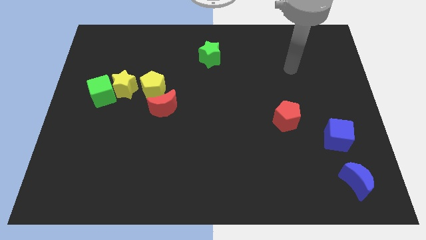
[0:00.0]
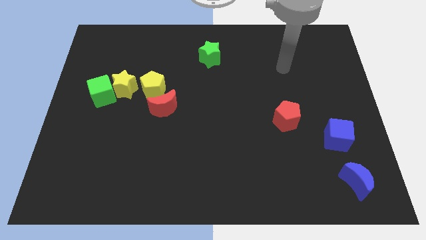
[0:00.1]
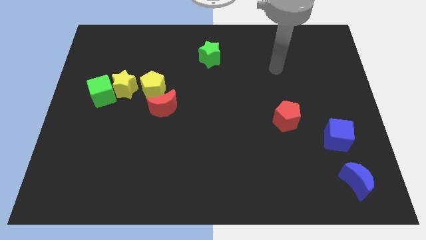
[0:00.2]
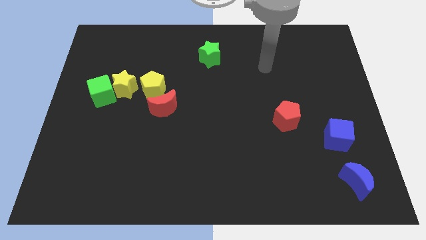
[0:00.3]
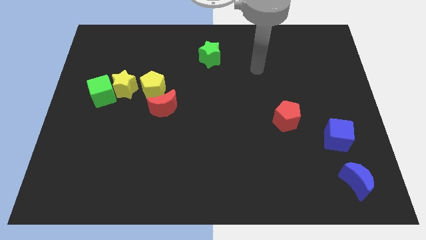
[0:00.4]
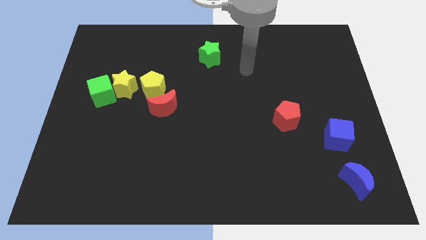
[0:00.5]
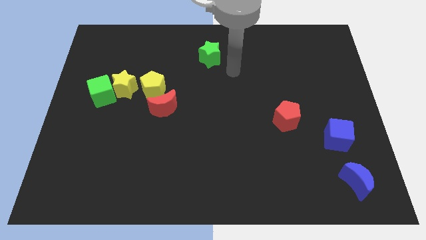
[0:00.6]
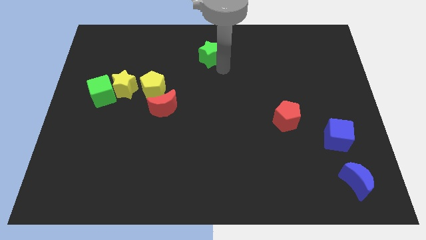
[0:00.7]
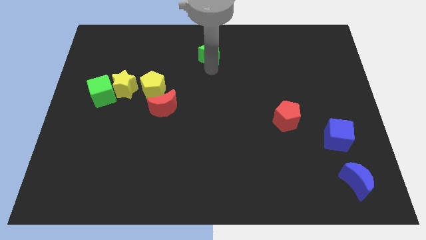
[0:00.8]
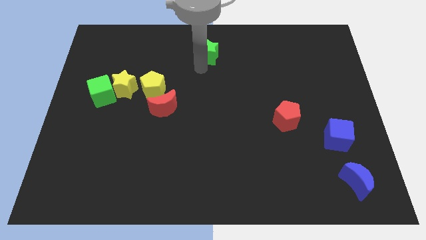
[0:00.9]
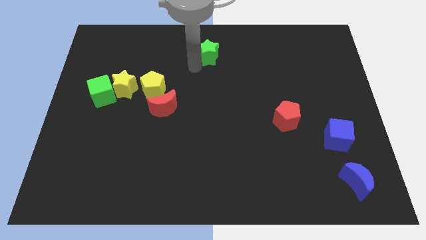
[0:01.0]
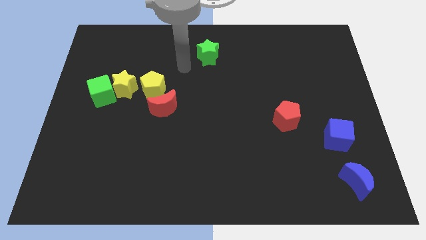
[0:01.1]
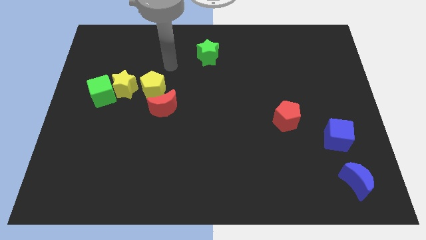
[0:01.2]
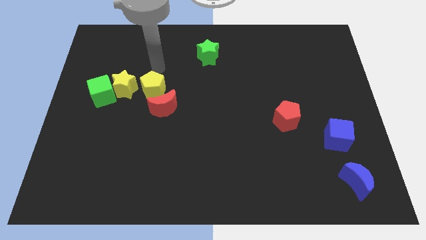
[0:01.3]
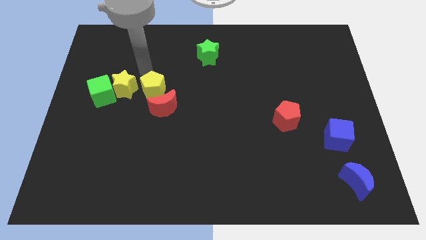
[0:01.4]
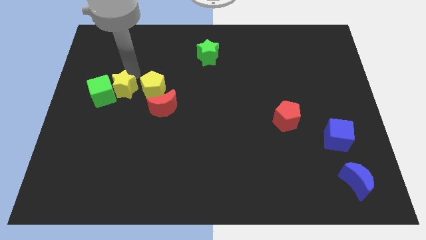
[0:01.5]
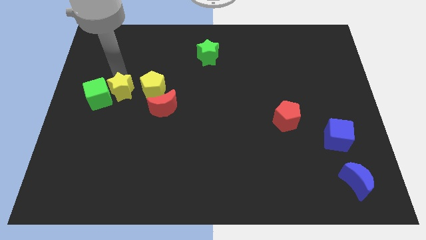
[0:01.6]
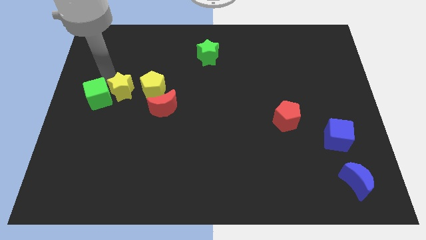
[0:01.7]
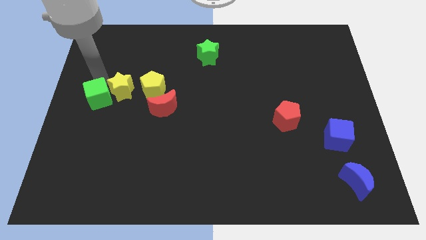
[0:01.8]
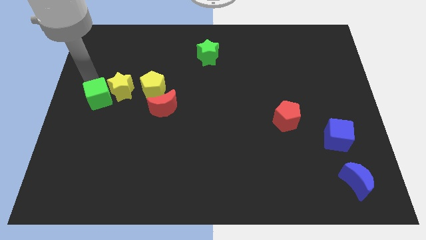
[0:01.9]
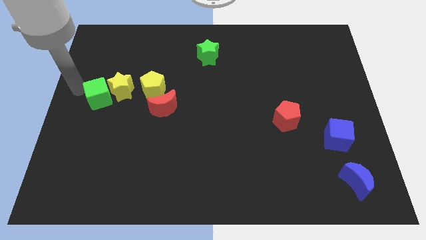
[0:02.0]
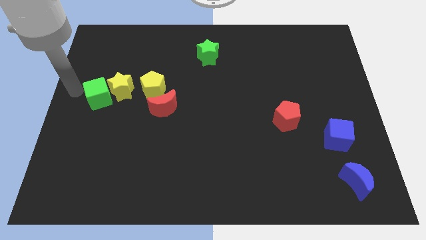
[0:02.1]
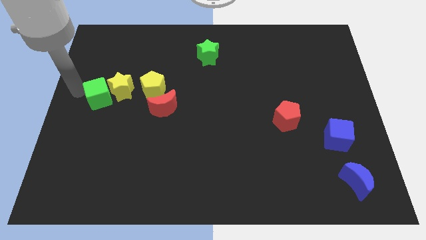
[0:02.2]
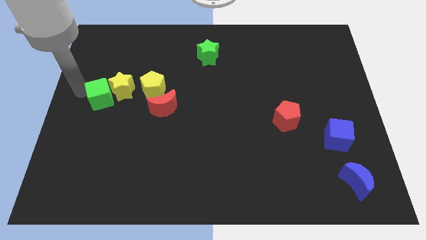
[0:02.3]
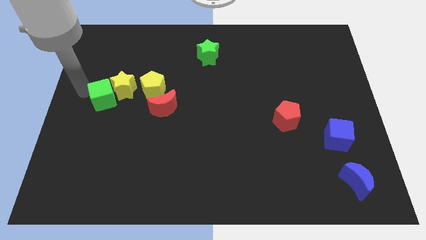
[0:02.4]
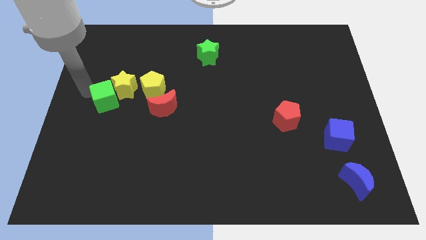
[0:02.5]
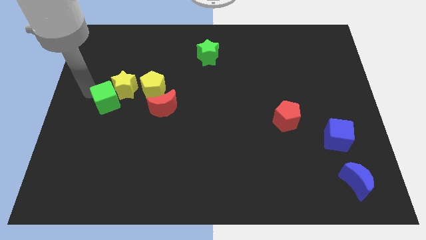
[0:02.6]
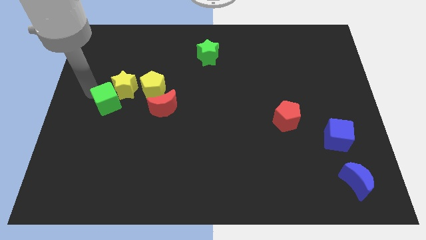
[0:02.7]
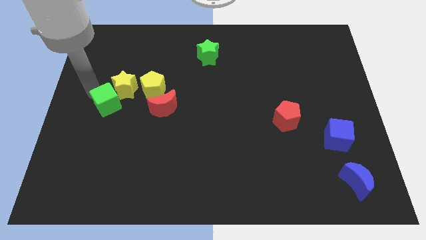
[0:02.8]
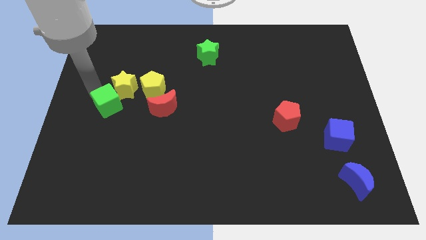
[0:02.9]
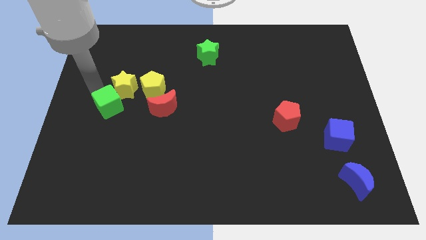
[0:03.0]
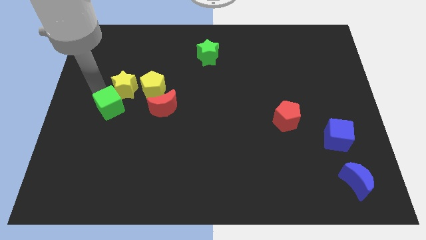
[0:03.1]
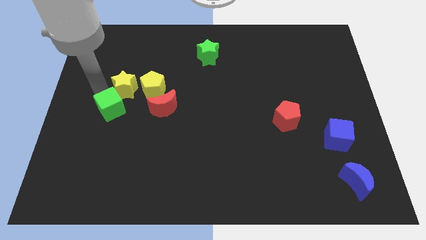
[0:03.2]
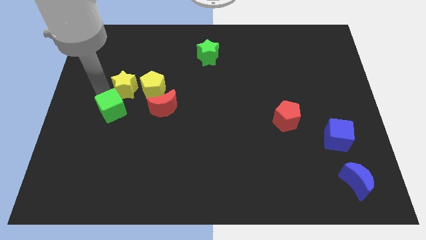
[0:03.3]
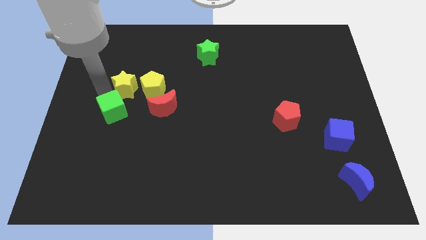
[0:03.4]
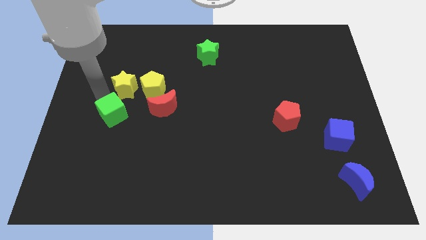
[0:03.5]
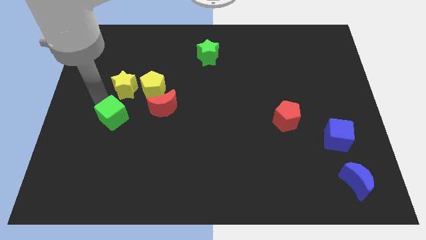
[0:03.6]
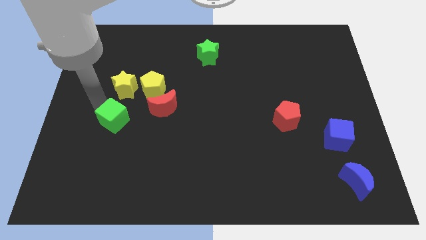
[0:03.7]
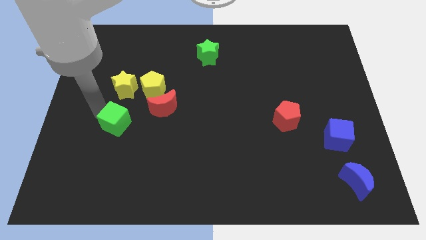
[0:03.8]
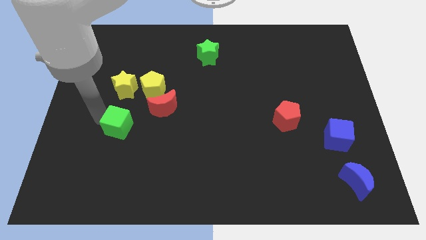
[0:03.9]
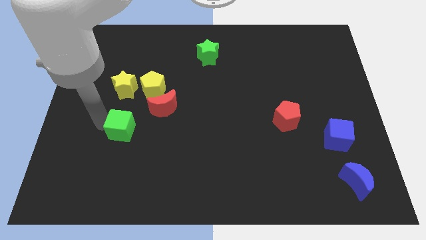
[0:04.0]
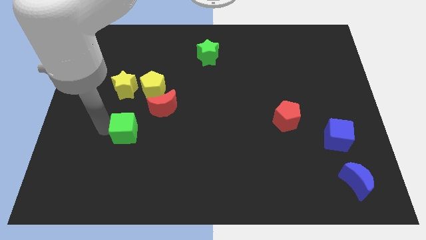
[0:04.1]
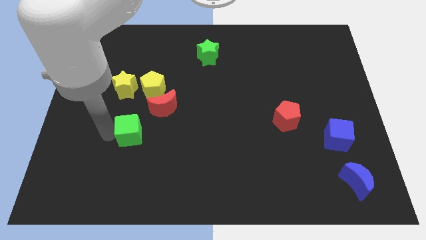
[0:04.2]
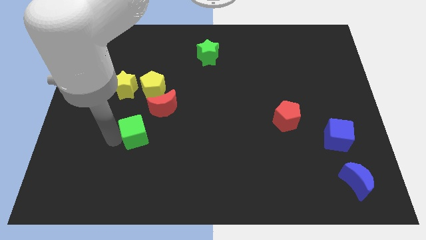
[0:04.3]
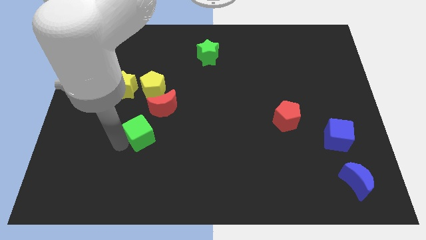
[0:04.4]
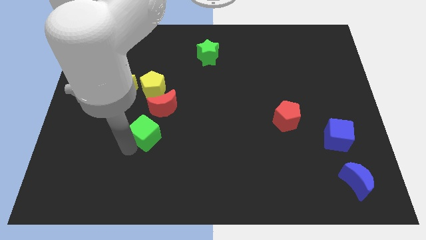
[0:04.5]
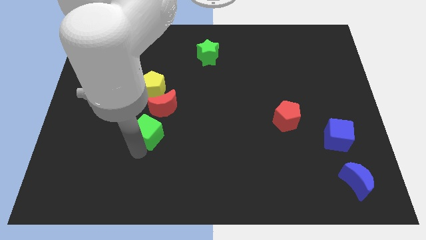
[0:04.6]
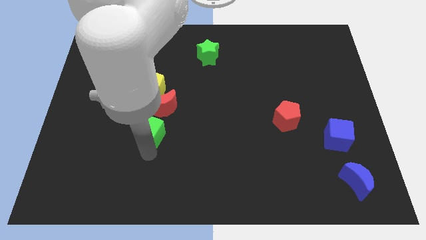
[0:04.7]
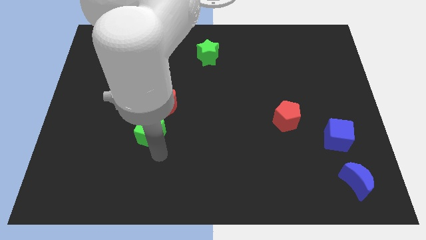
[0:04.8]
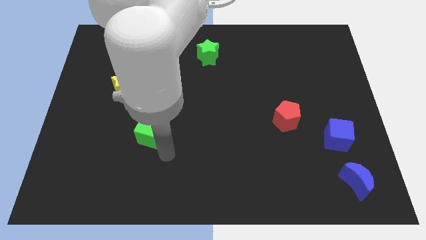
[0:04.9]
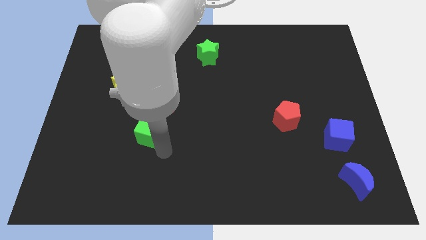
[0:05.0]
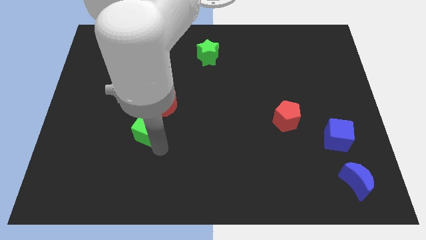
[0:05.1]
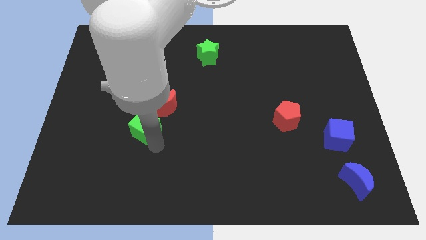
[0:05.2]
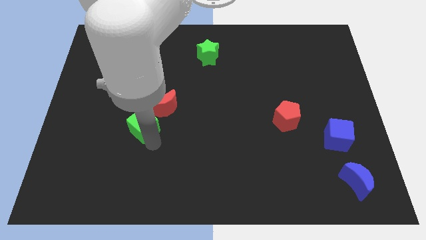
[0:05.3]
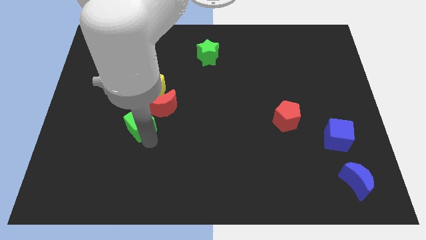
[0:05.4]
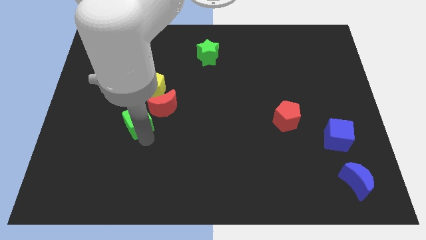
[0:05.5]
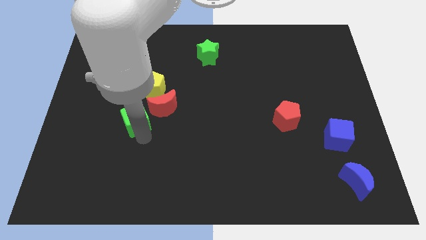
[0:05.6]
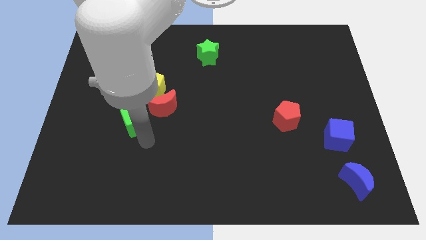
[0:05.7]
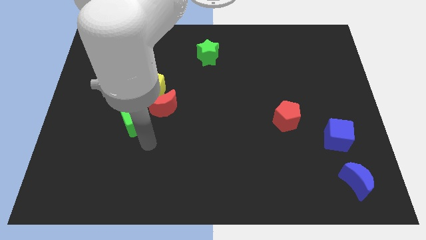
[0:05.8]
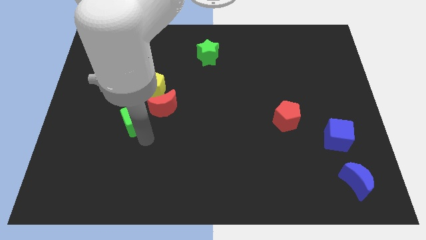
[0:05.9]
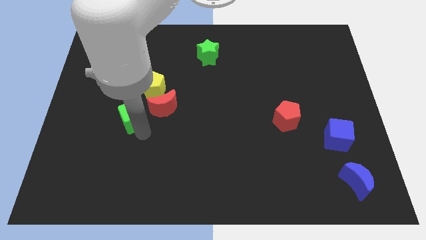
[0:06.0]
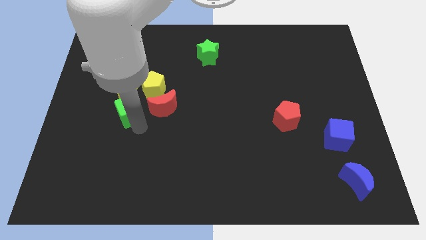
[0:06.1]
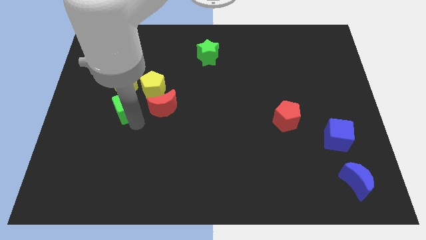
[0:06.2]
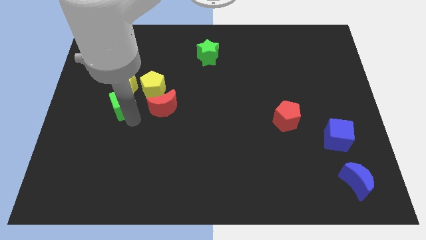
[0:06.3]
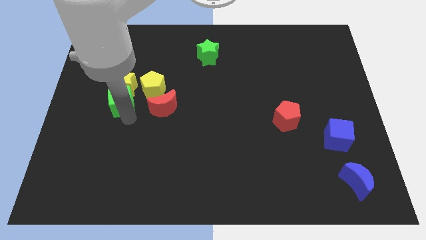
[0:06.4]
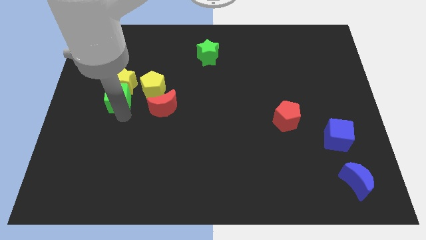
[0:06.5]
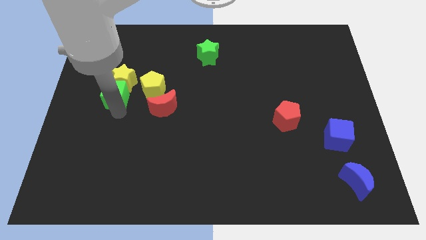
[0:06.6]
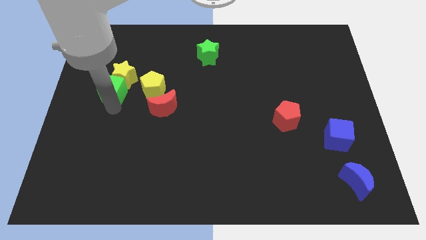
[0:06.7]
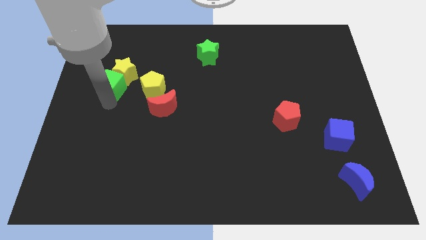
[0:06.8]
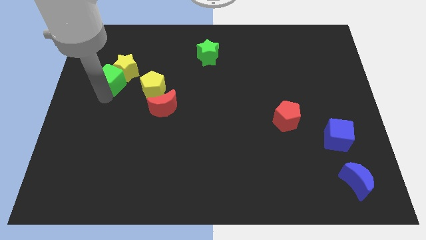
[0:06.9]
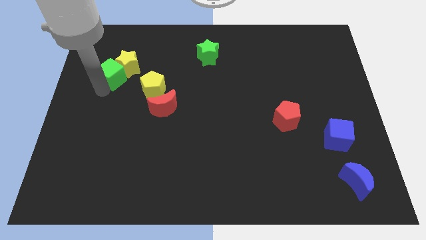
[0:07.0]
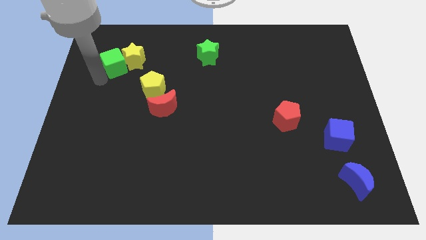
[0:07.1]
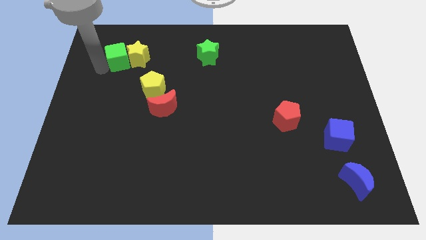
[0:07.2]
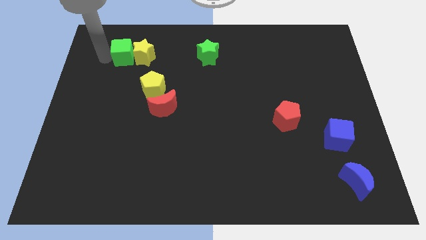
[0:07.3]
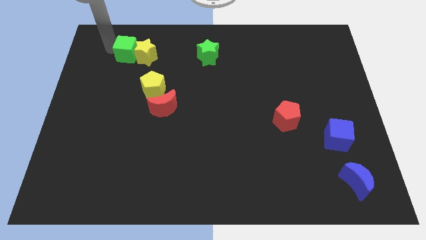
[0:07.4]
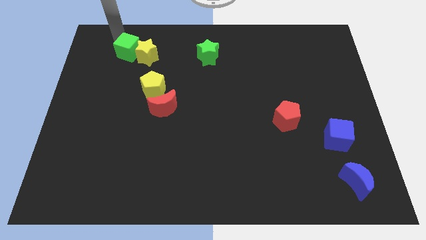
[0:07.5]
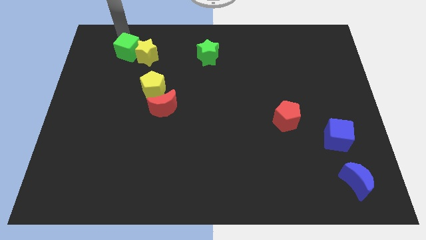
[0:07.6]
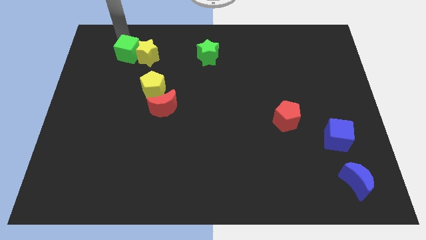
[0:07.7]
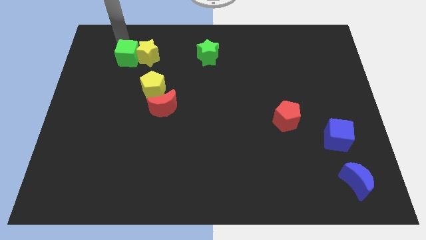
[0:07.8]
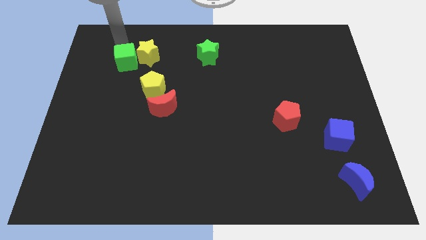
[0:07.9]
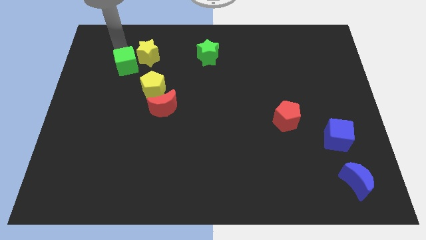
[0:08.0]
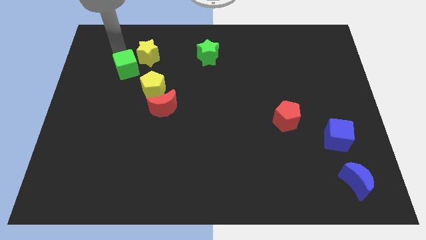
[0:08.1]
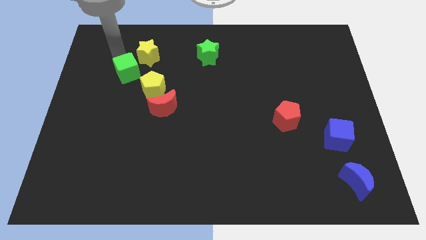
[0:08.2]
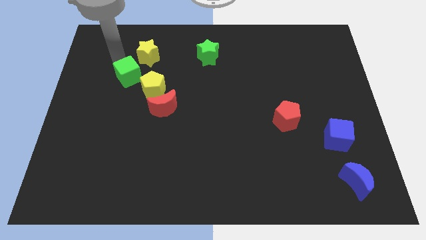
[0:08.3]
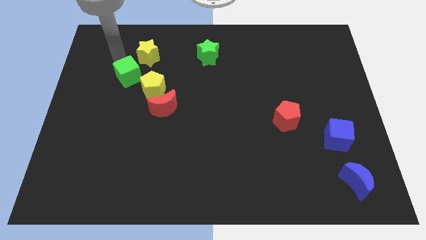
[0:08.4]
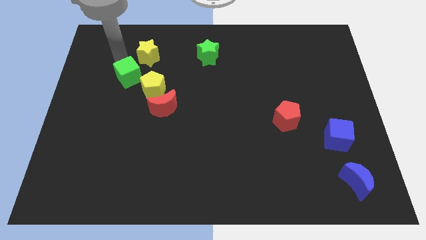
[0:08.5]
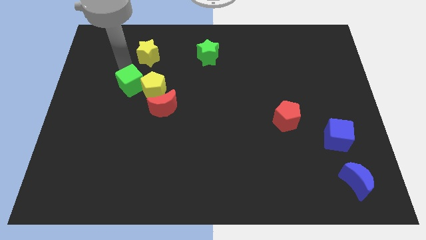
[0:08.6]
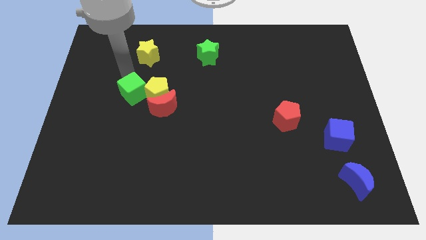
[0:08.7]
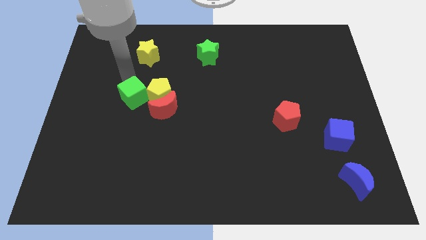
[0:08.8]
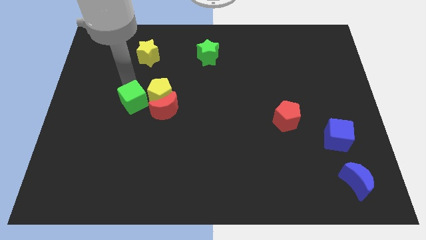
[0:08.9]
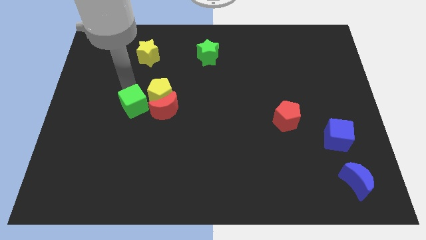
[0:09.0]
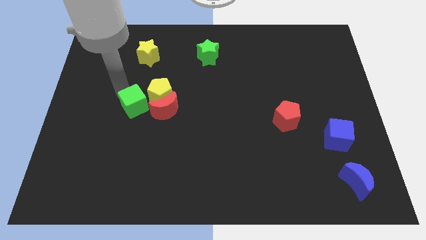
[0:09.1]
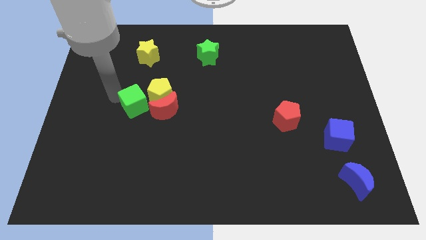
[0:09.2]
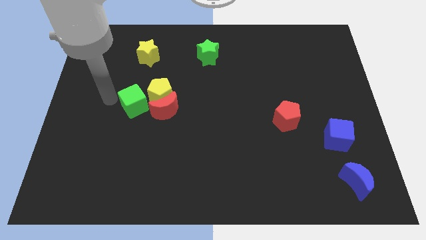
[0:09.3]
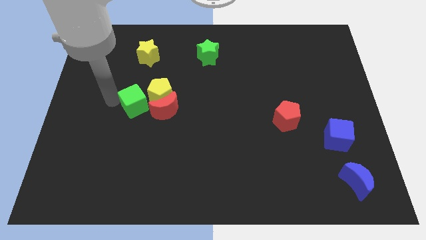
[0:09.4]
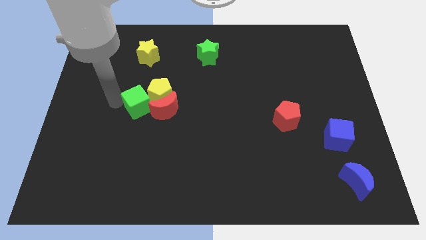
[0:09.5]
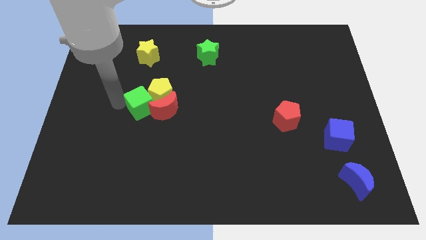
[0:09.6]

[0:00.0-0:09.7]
put the green cube close to the red moon
